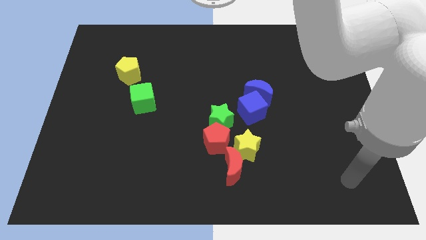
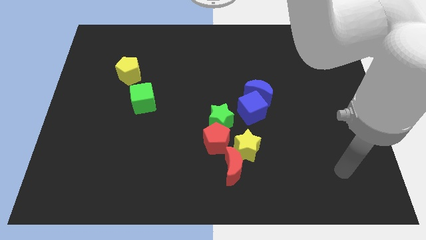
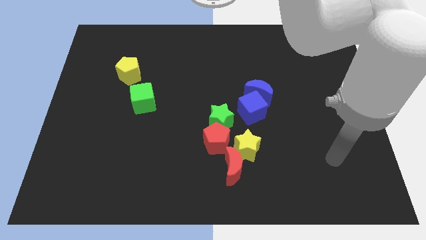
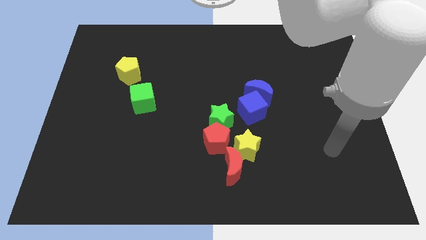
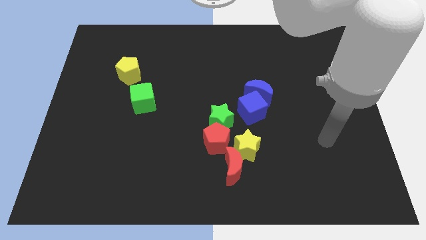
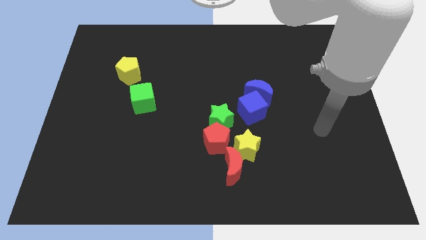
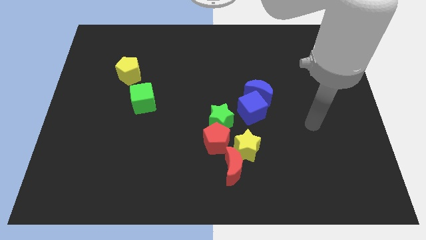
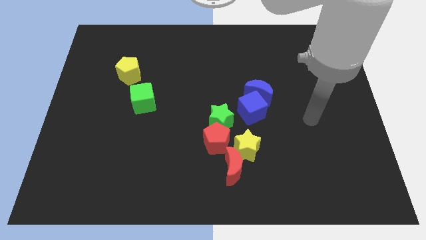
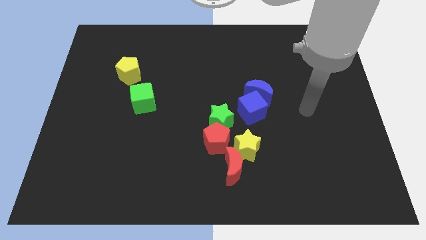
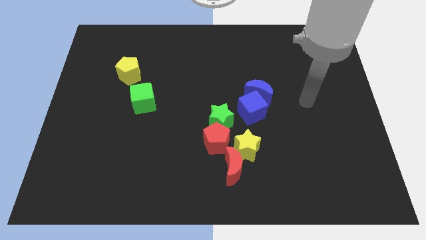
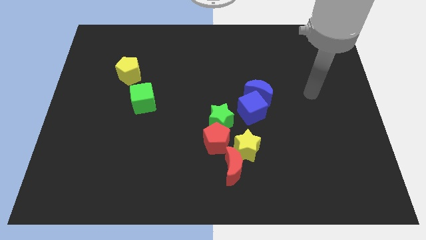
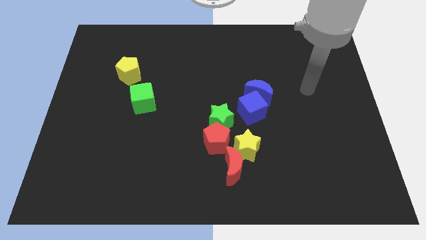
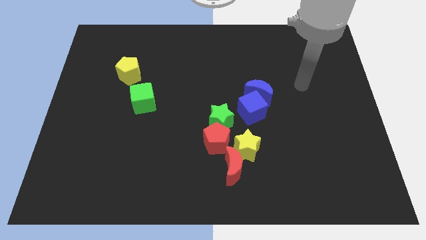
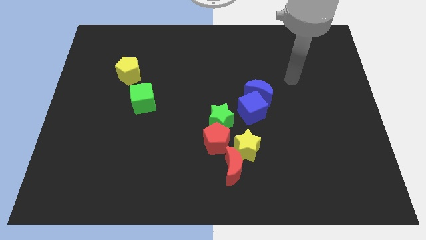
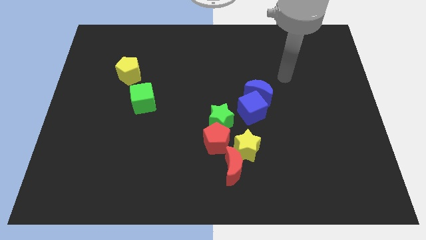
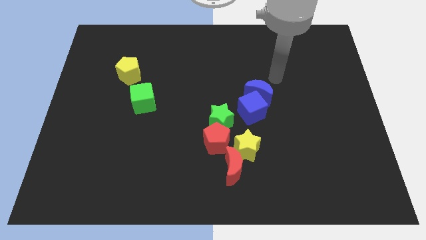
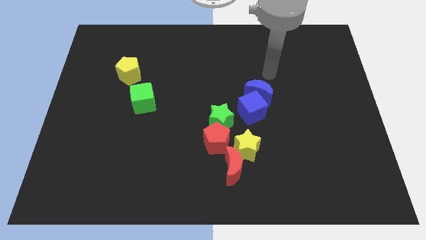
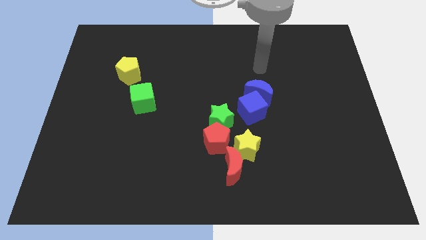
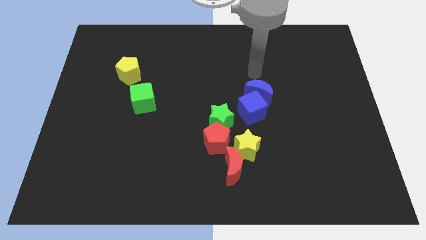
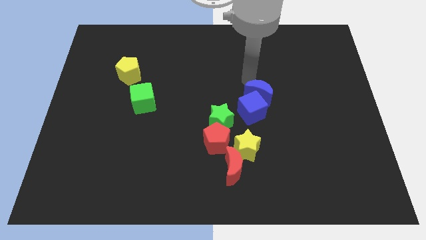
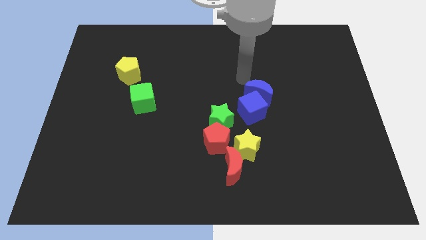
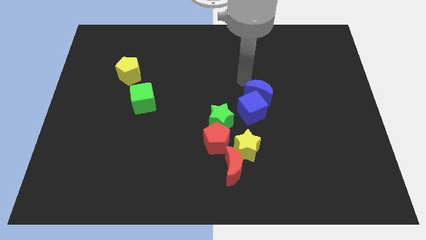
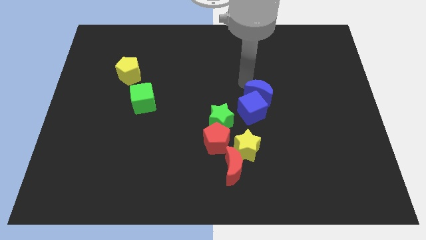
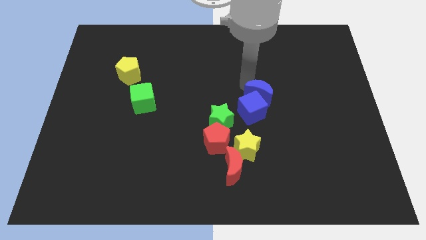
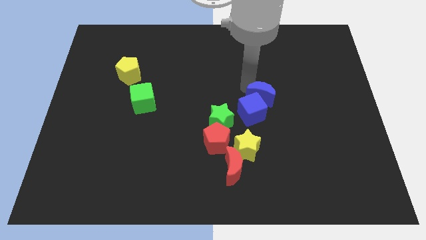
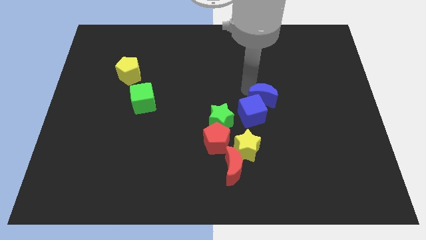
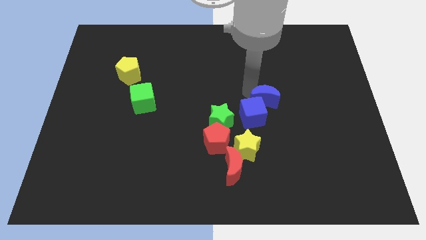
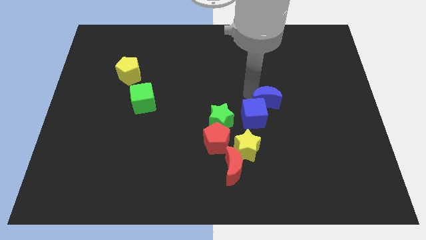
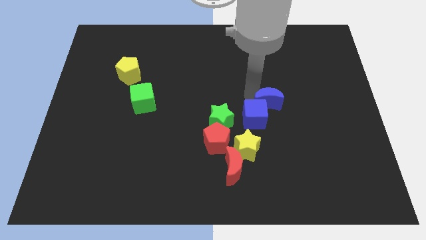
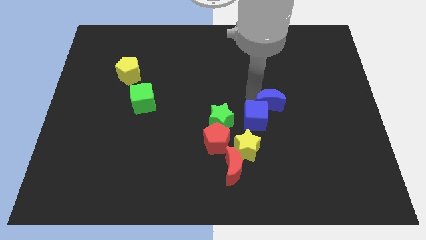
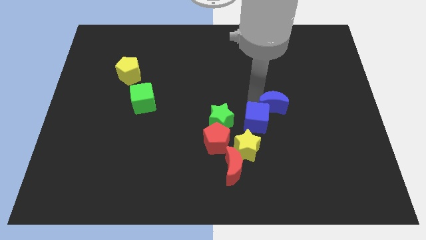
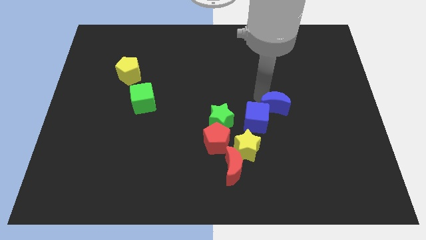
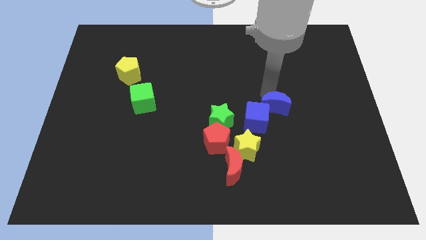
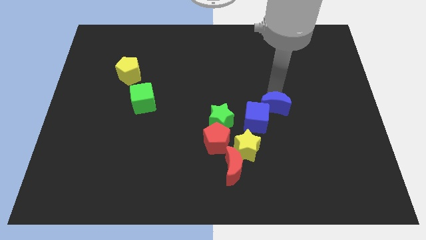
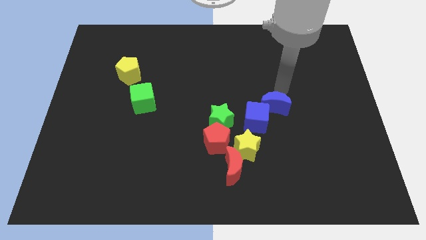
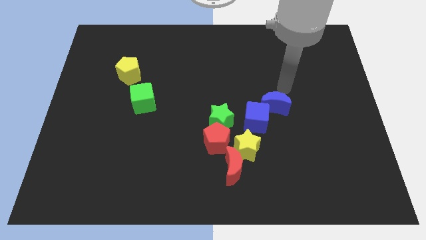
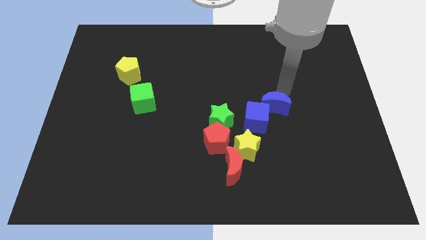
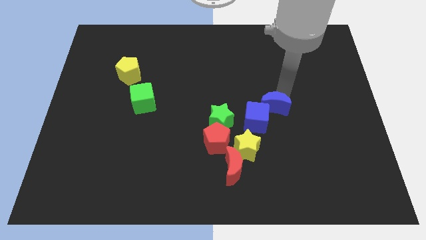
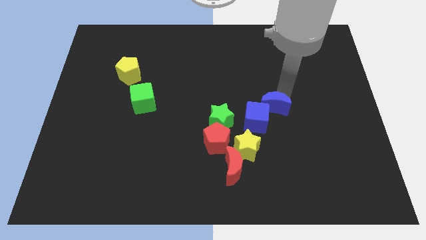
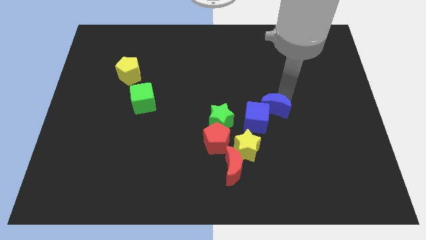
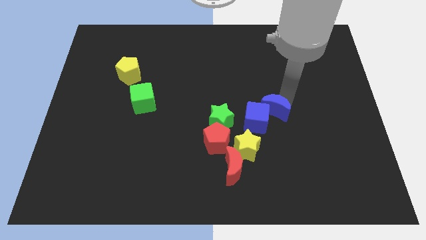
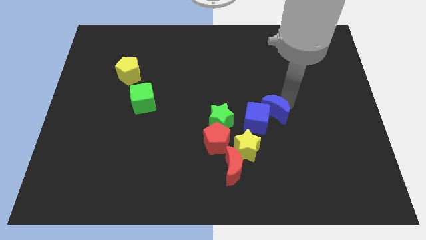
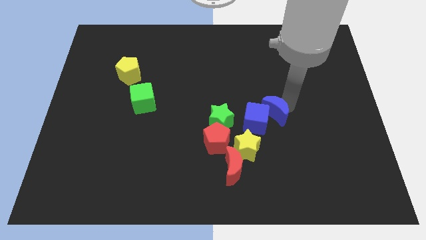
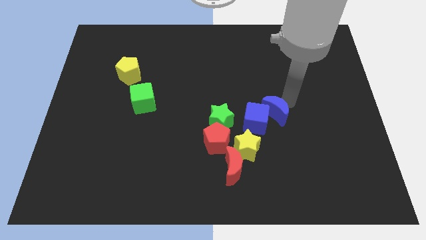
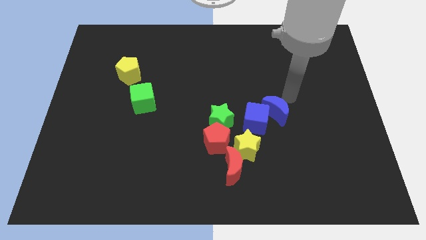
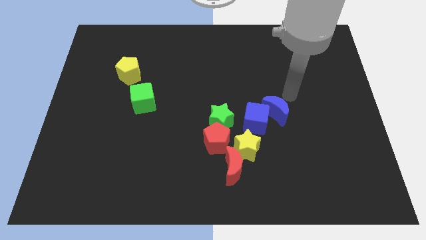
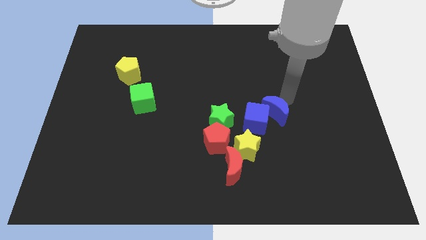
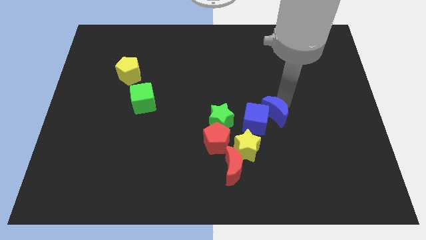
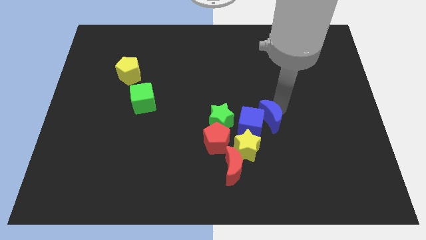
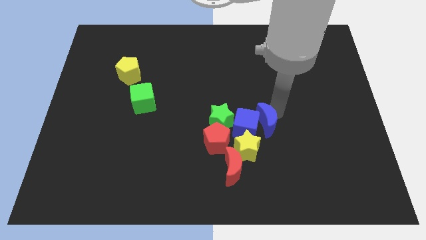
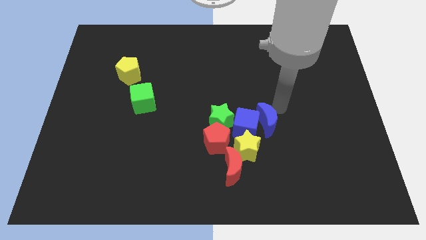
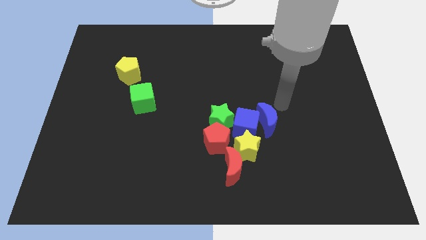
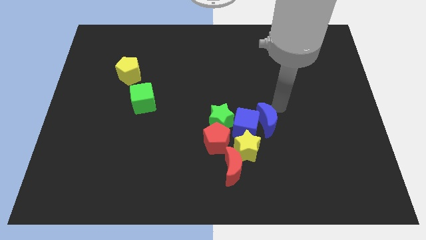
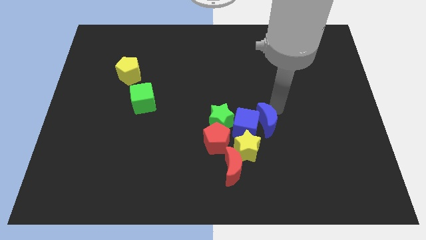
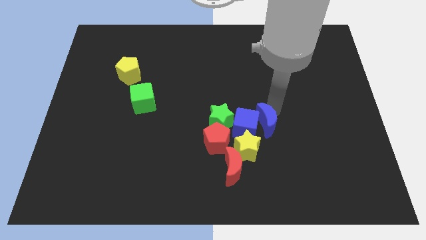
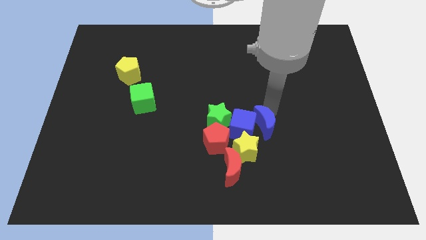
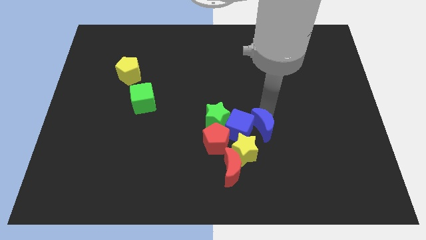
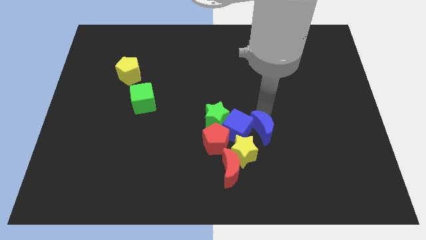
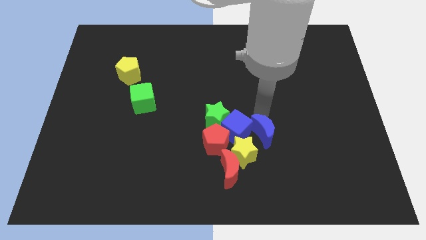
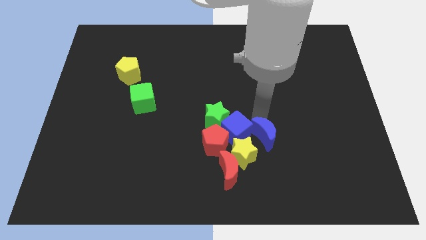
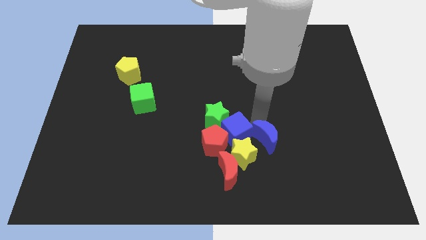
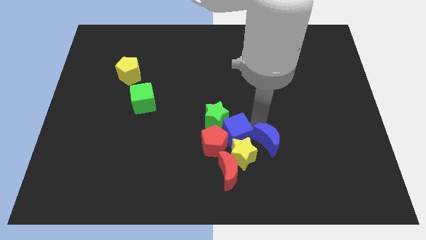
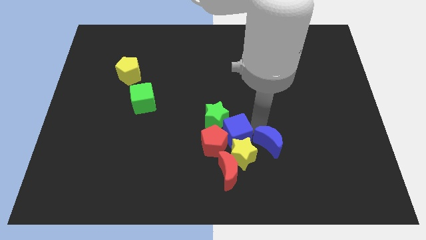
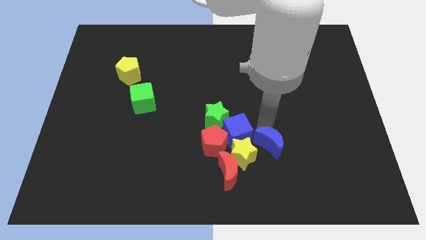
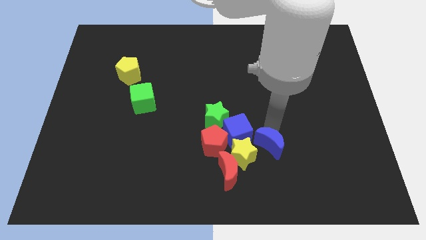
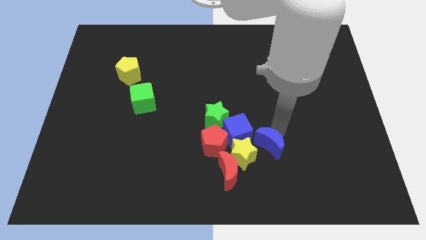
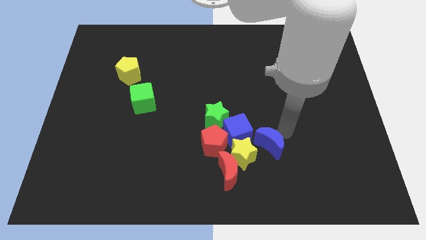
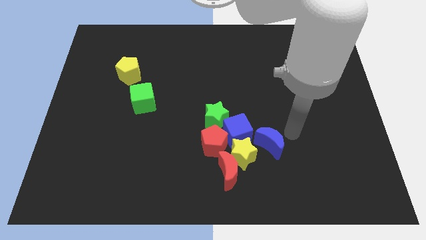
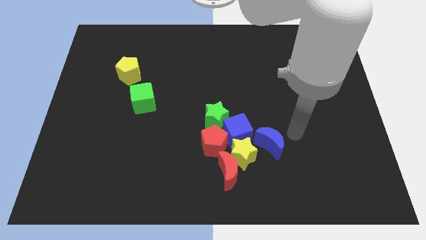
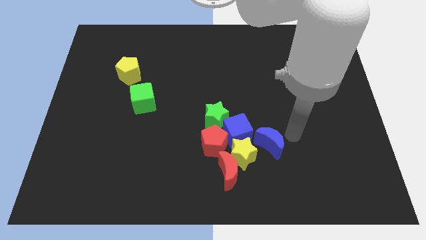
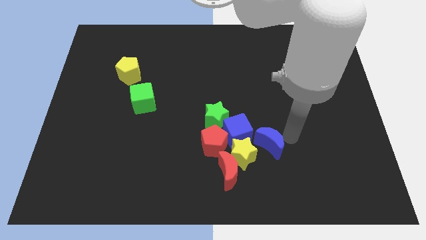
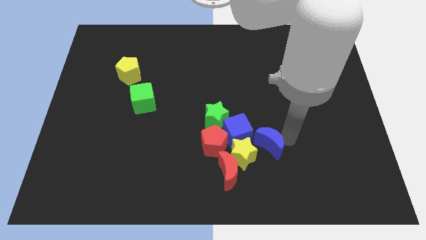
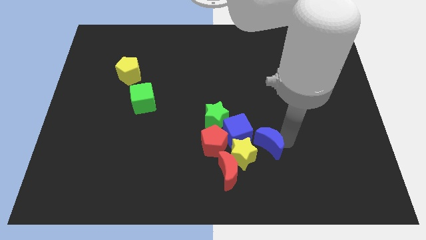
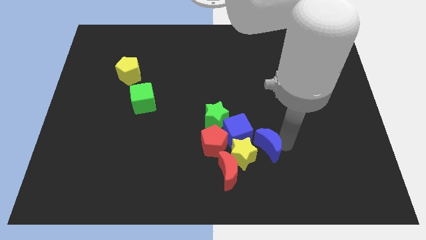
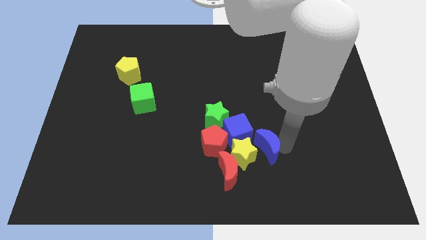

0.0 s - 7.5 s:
slide the blue moon to the yellow star
